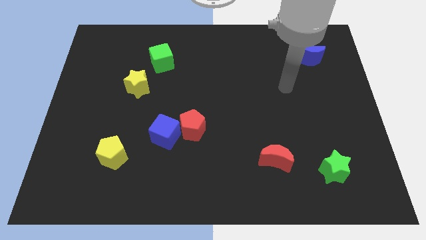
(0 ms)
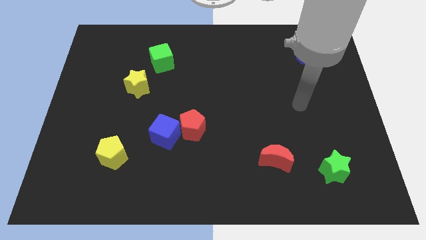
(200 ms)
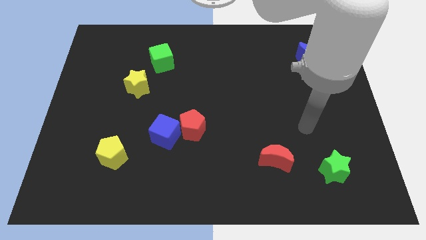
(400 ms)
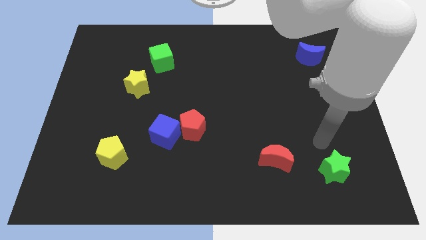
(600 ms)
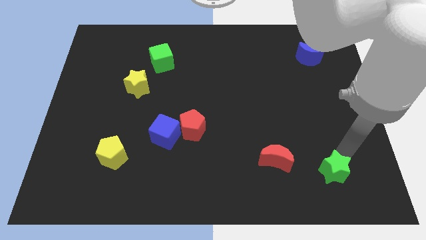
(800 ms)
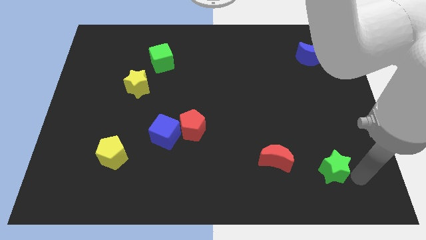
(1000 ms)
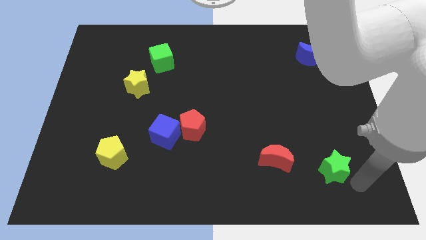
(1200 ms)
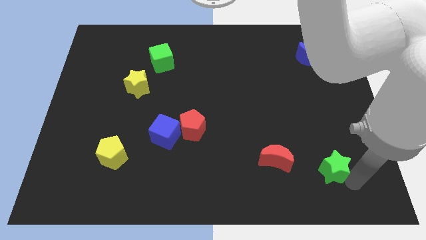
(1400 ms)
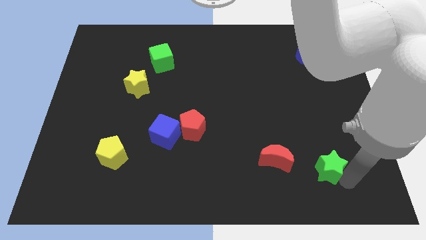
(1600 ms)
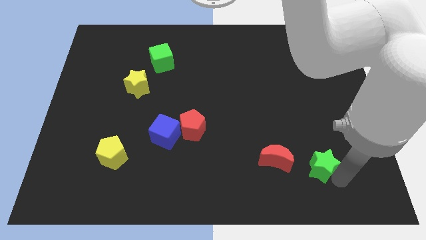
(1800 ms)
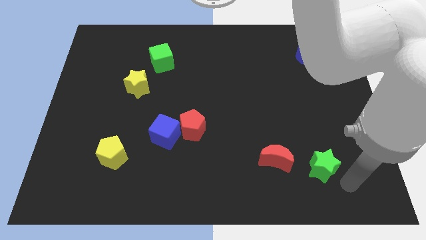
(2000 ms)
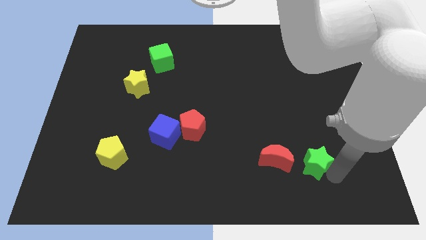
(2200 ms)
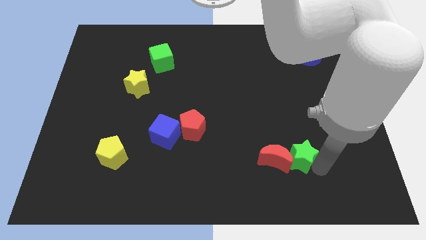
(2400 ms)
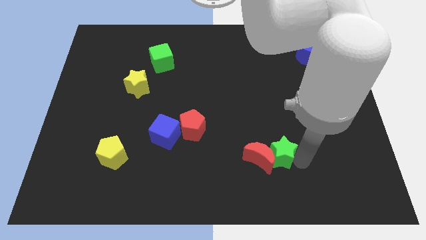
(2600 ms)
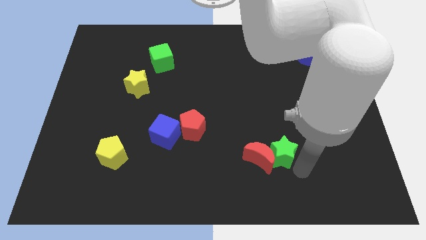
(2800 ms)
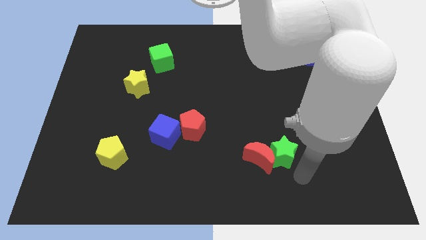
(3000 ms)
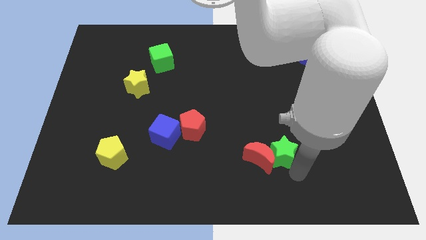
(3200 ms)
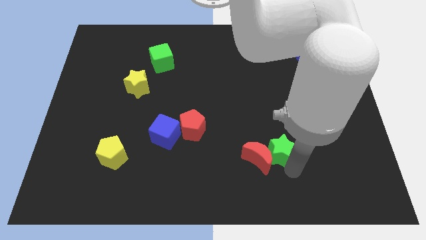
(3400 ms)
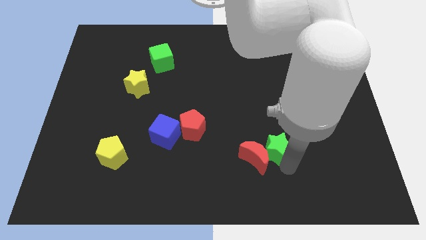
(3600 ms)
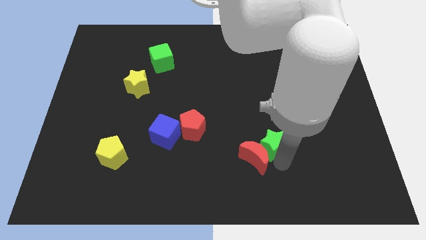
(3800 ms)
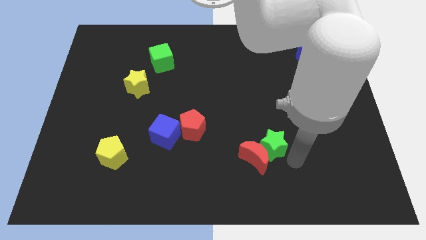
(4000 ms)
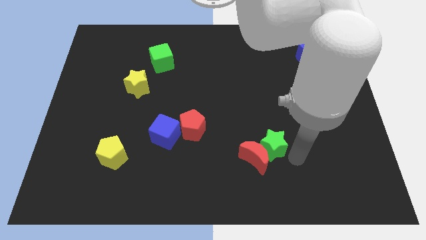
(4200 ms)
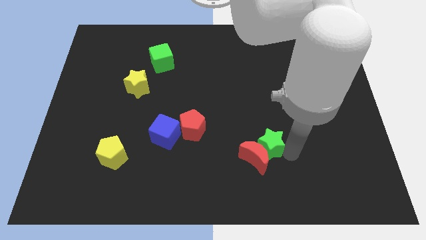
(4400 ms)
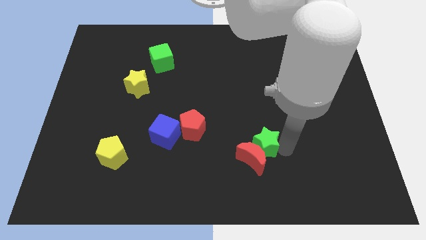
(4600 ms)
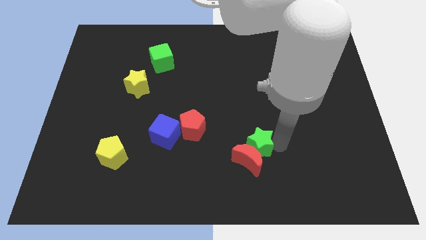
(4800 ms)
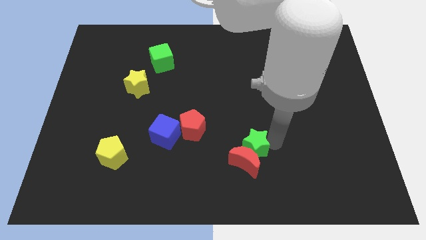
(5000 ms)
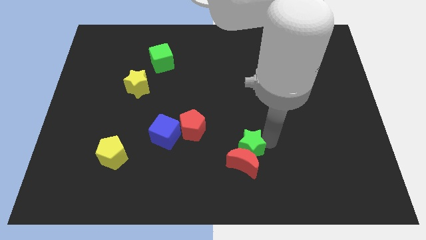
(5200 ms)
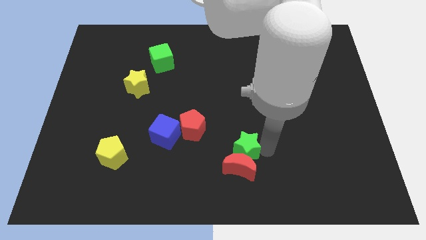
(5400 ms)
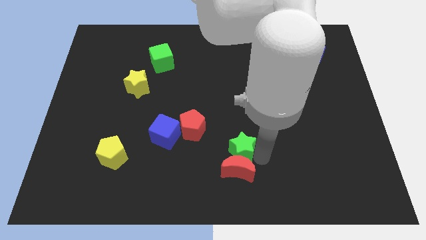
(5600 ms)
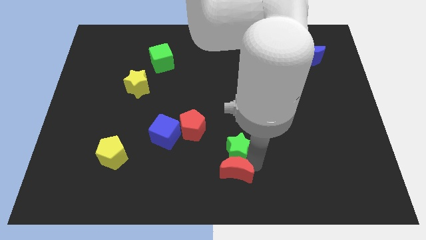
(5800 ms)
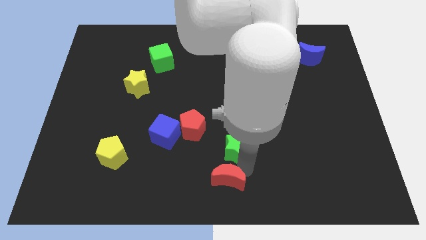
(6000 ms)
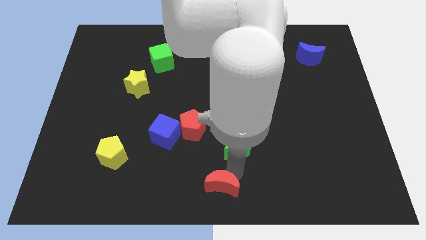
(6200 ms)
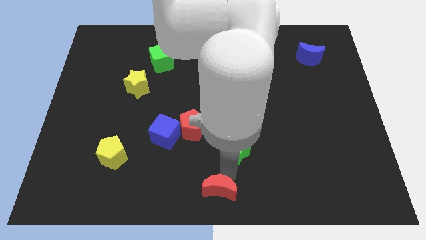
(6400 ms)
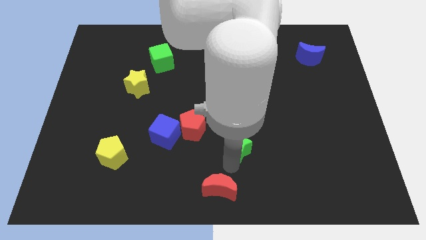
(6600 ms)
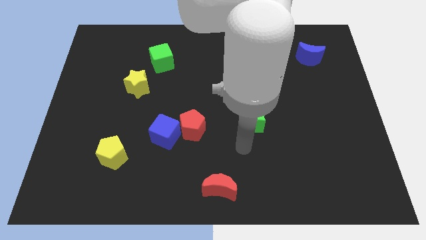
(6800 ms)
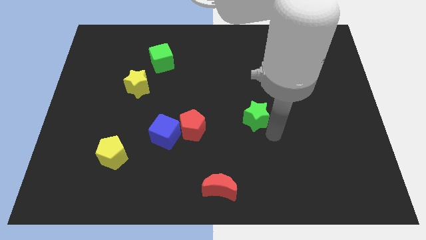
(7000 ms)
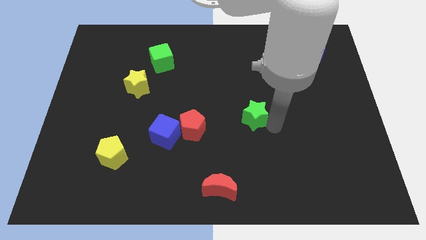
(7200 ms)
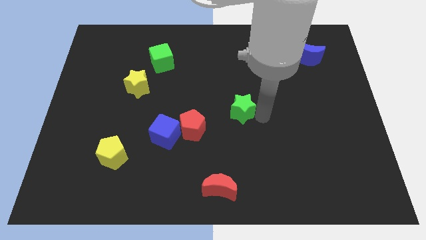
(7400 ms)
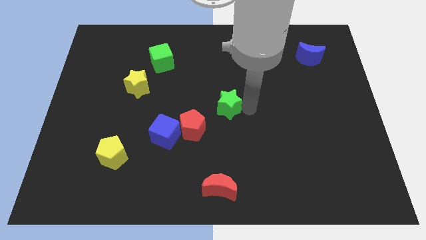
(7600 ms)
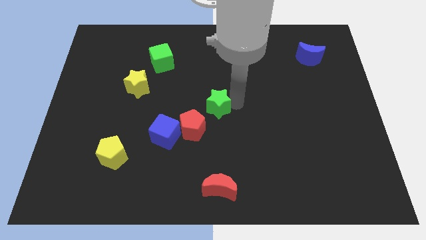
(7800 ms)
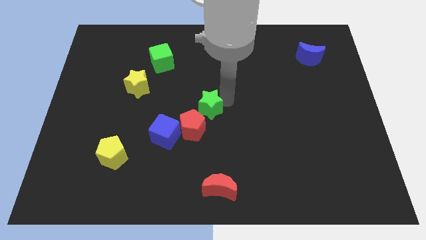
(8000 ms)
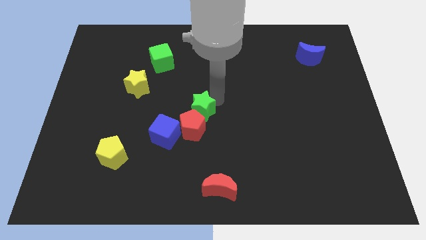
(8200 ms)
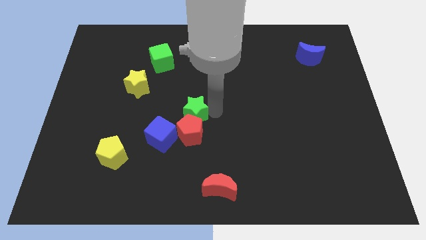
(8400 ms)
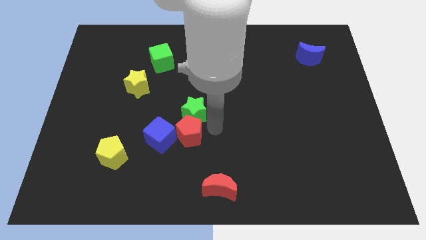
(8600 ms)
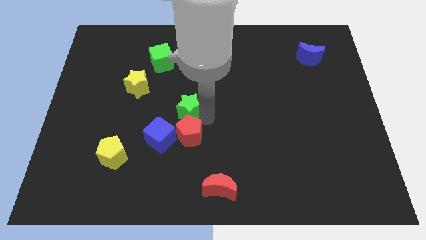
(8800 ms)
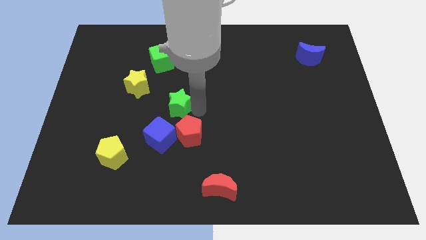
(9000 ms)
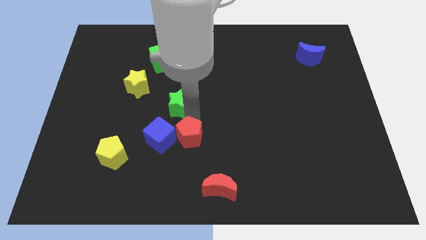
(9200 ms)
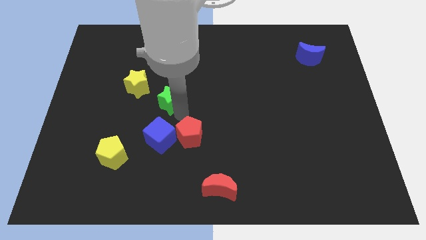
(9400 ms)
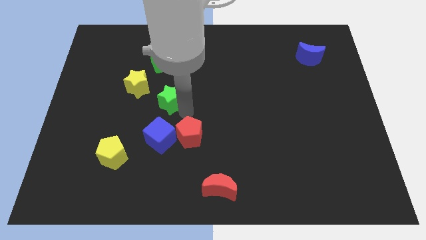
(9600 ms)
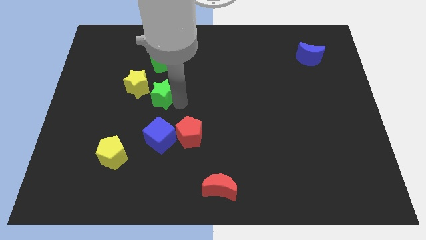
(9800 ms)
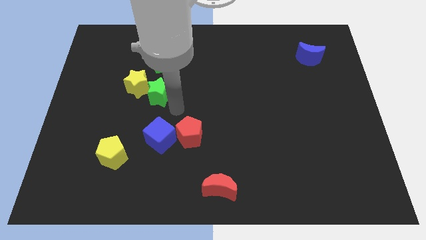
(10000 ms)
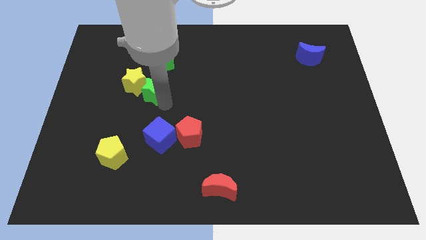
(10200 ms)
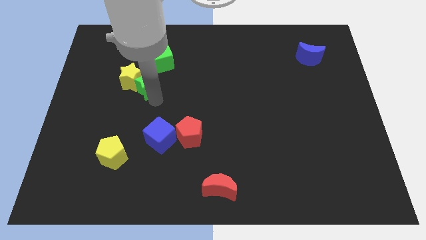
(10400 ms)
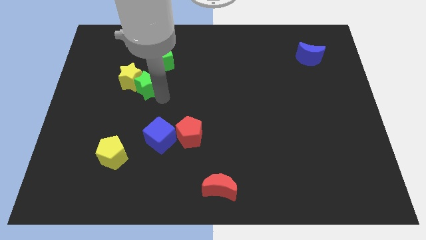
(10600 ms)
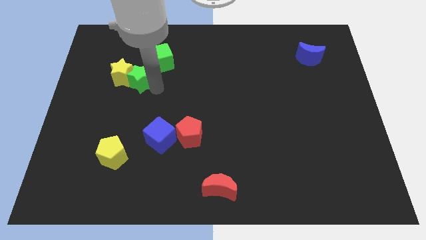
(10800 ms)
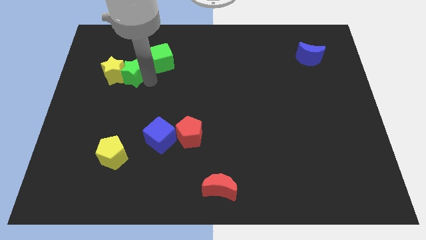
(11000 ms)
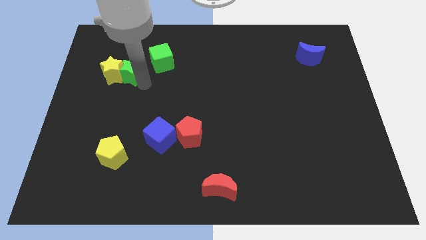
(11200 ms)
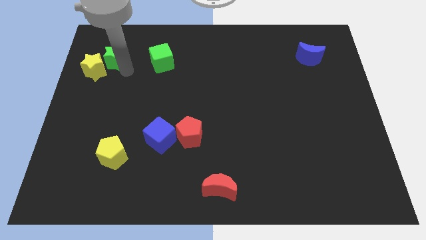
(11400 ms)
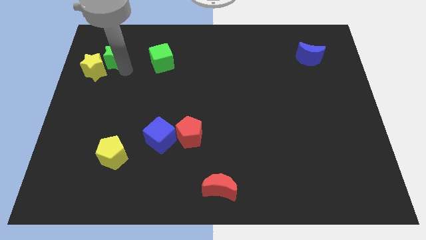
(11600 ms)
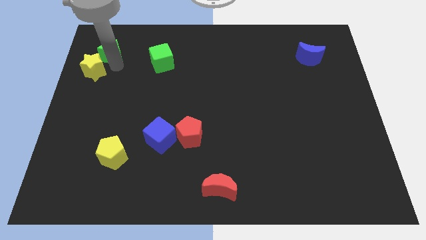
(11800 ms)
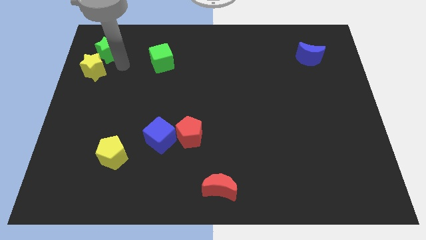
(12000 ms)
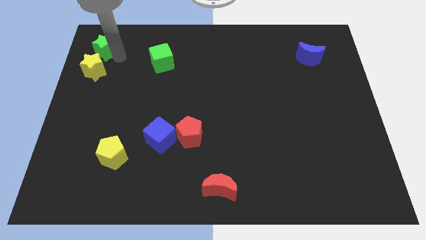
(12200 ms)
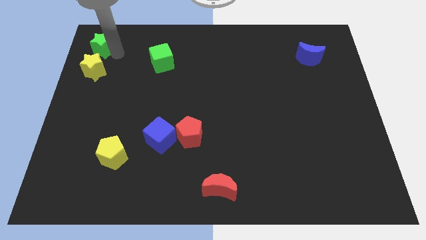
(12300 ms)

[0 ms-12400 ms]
push the green star to the upper left corner
